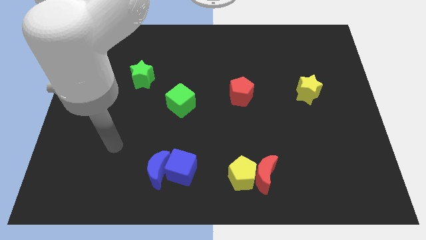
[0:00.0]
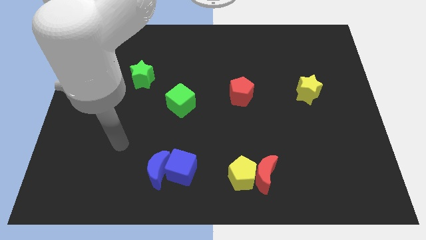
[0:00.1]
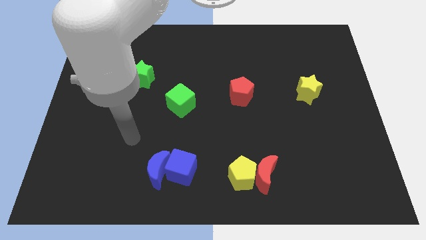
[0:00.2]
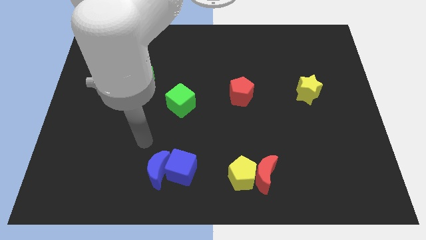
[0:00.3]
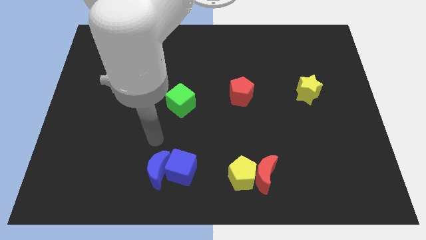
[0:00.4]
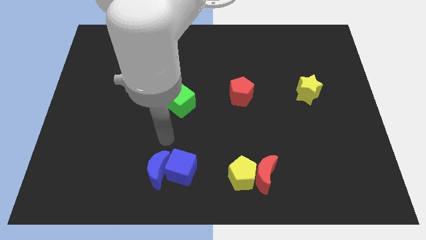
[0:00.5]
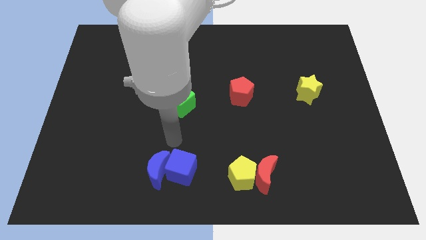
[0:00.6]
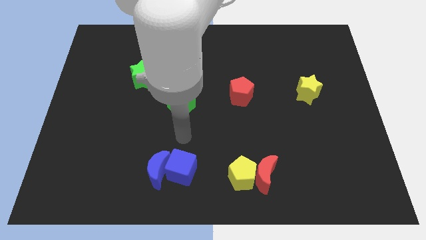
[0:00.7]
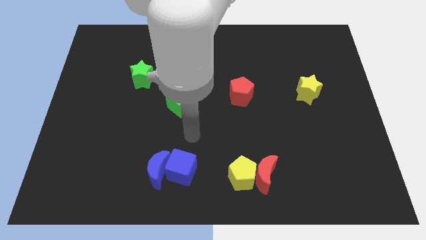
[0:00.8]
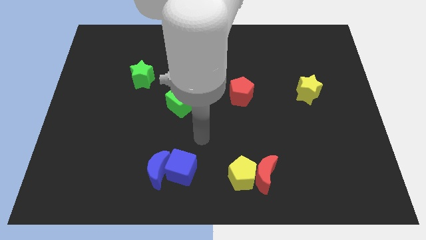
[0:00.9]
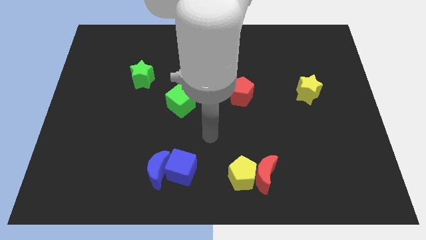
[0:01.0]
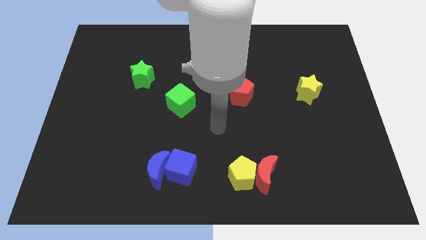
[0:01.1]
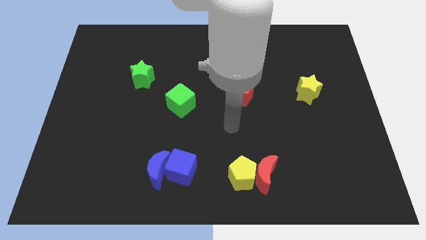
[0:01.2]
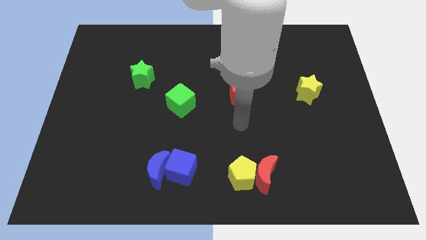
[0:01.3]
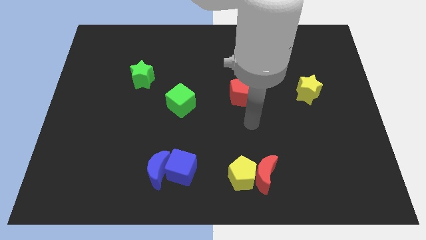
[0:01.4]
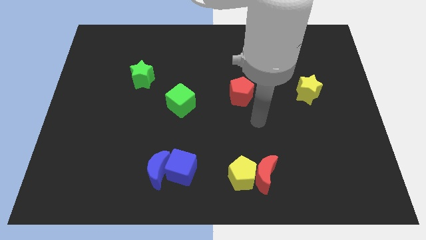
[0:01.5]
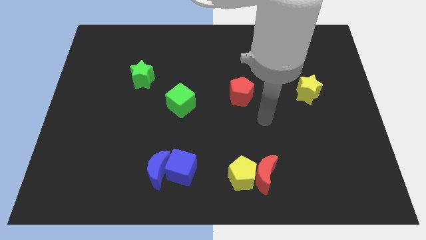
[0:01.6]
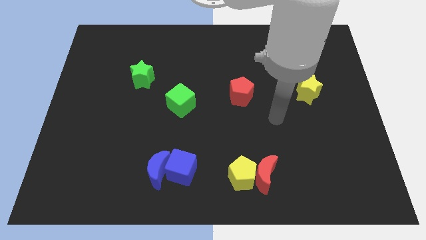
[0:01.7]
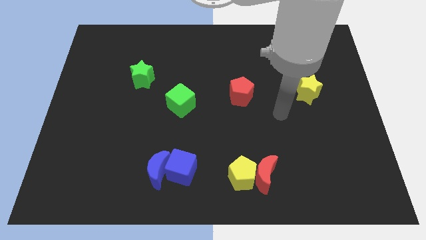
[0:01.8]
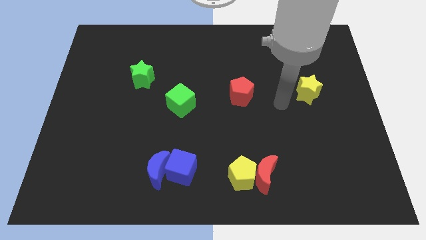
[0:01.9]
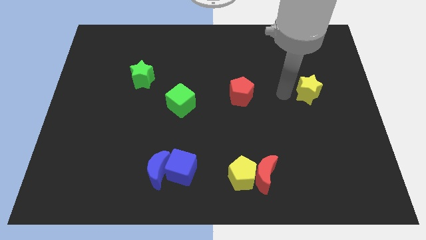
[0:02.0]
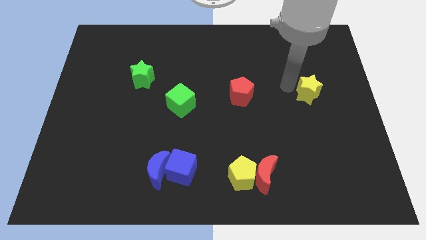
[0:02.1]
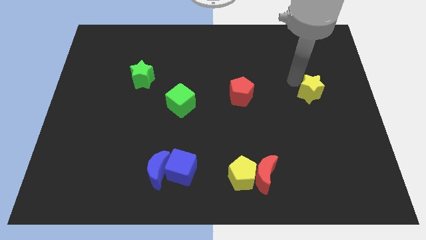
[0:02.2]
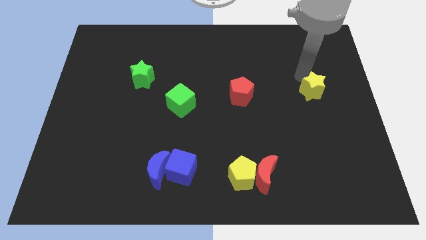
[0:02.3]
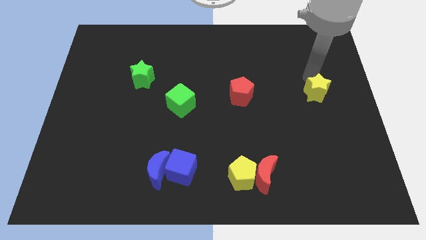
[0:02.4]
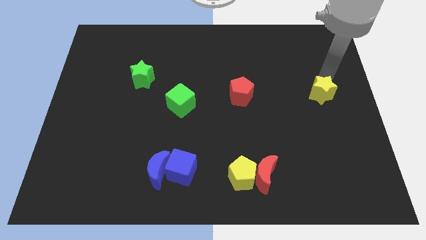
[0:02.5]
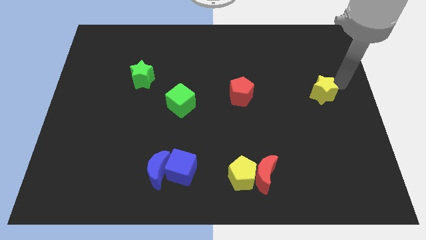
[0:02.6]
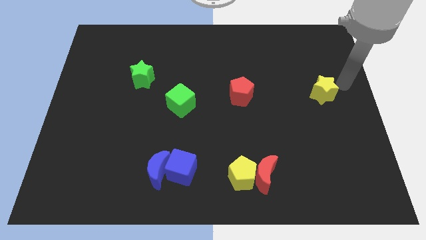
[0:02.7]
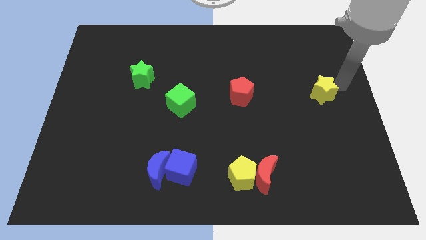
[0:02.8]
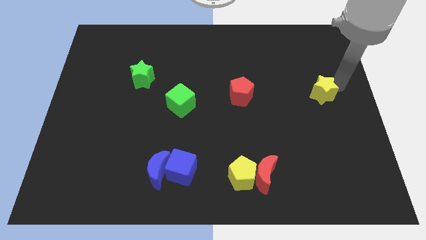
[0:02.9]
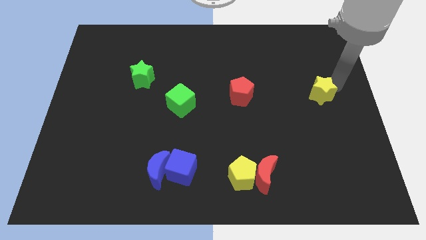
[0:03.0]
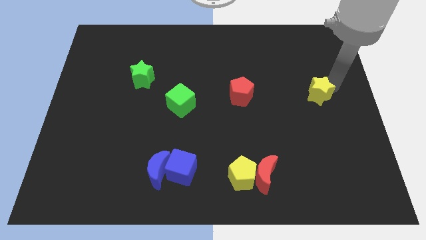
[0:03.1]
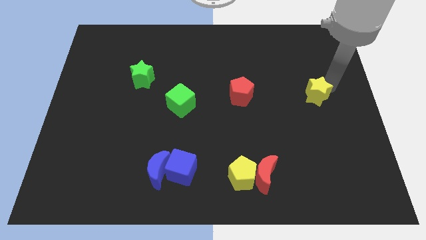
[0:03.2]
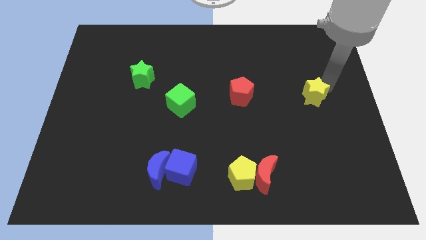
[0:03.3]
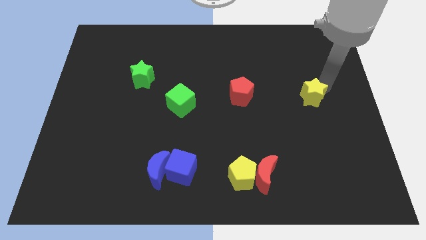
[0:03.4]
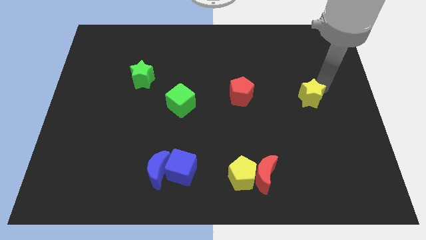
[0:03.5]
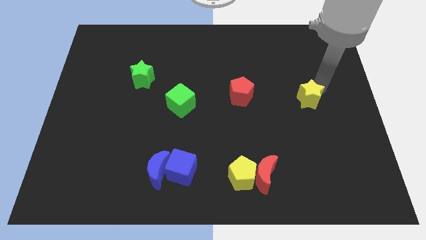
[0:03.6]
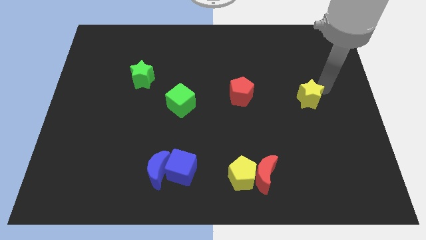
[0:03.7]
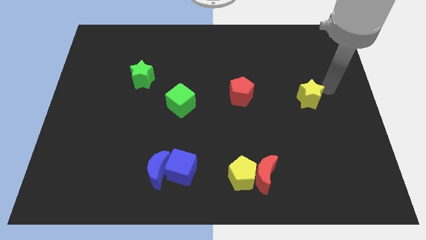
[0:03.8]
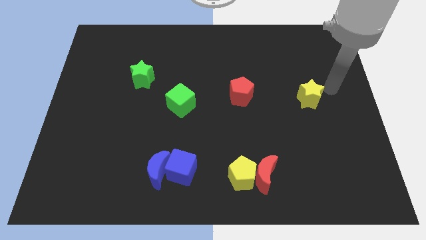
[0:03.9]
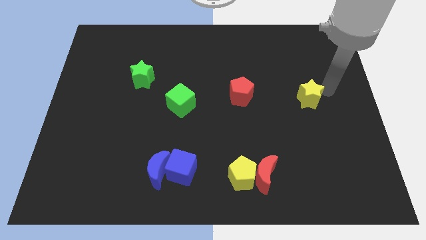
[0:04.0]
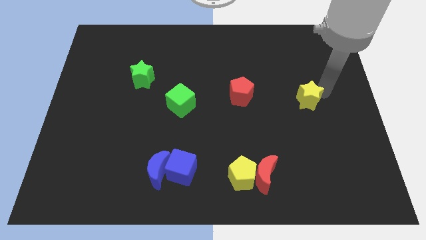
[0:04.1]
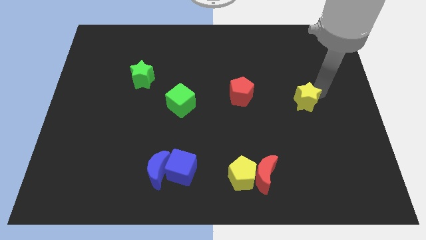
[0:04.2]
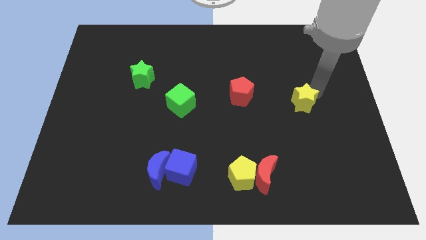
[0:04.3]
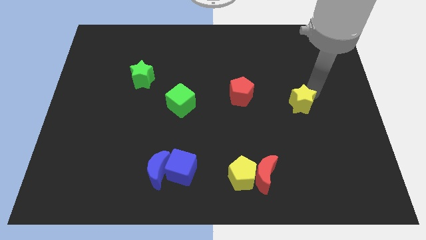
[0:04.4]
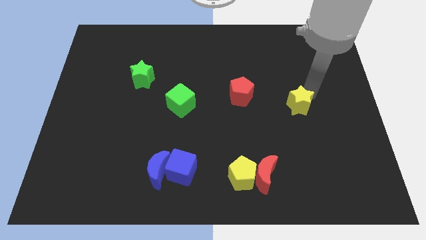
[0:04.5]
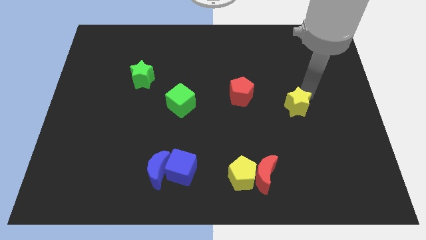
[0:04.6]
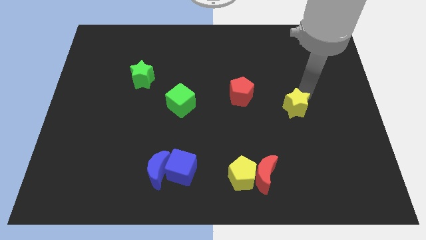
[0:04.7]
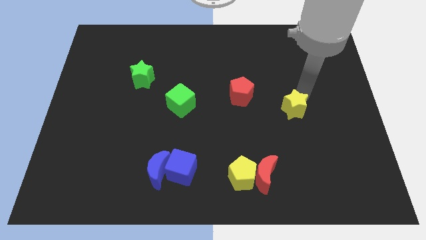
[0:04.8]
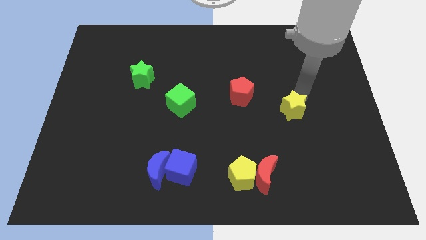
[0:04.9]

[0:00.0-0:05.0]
slide the yellow star a little bit down and then left

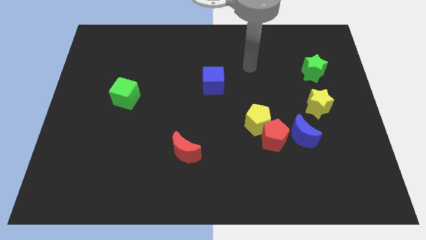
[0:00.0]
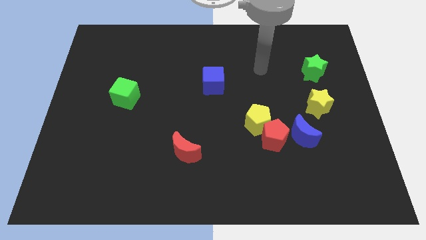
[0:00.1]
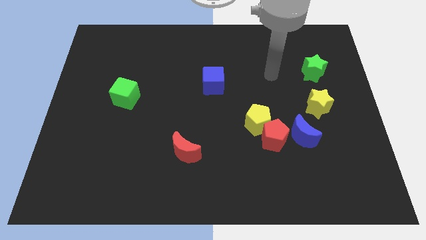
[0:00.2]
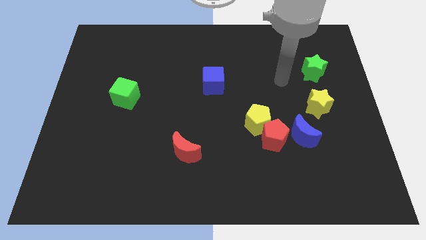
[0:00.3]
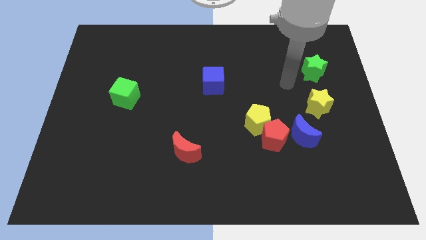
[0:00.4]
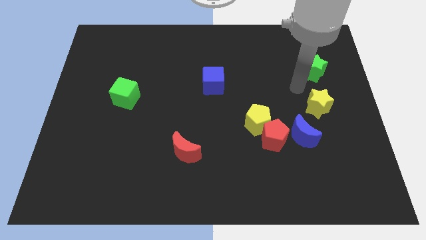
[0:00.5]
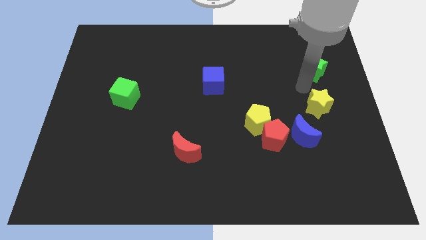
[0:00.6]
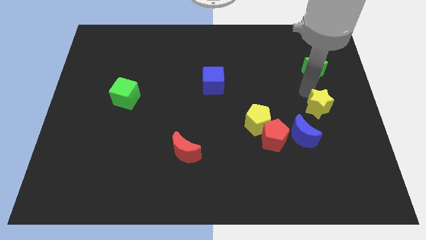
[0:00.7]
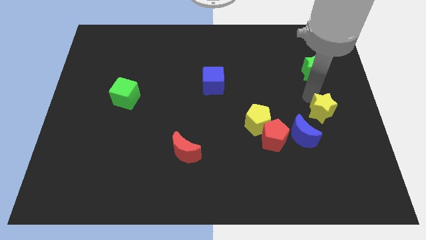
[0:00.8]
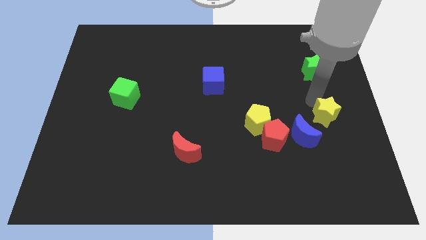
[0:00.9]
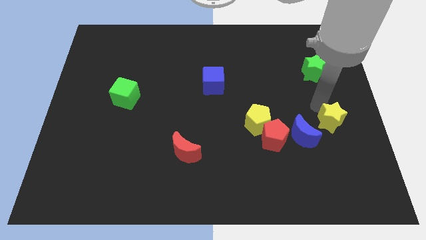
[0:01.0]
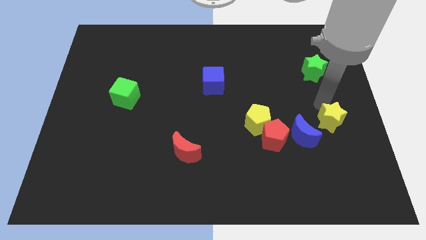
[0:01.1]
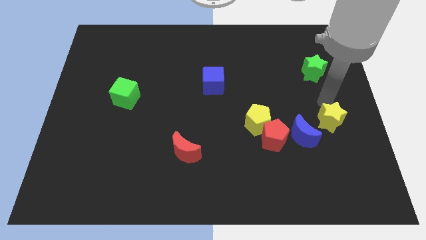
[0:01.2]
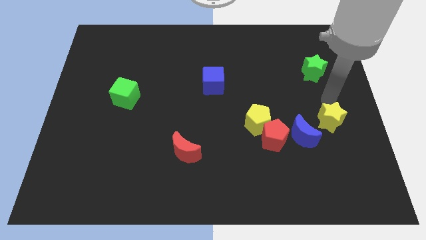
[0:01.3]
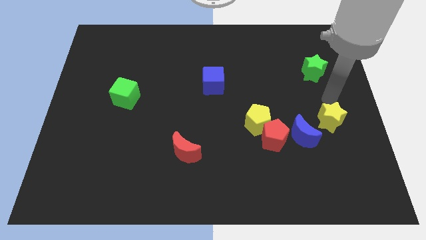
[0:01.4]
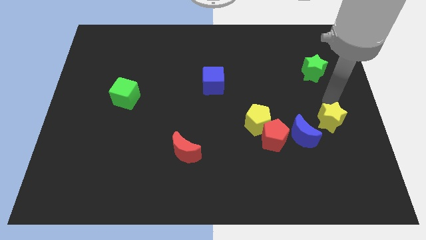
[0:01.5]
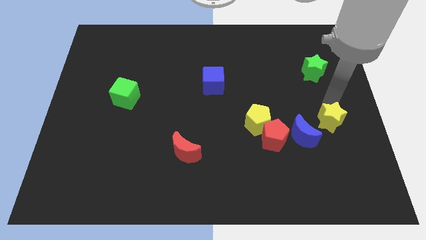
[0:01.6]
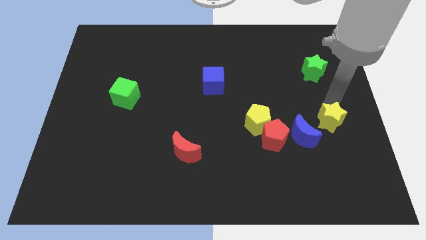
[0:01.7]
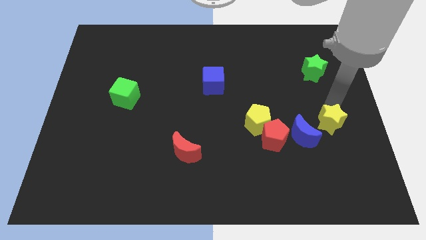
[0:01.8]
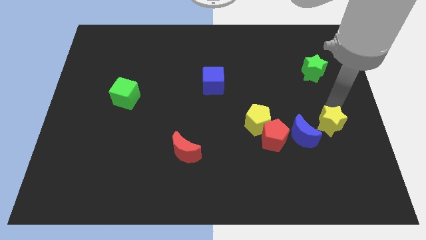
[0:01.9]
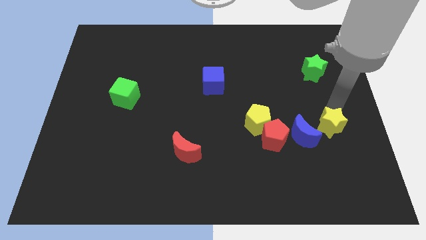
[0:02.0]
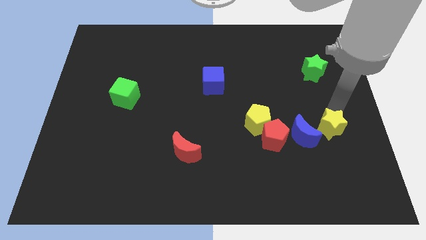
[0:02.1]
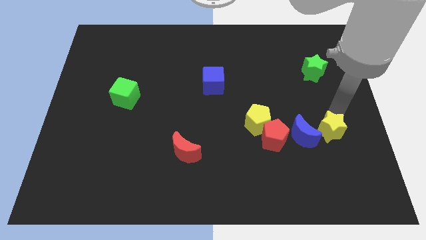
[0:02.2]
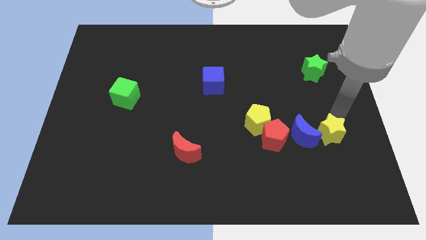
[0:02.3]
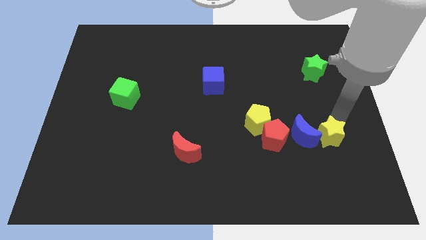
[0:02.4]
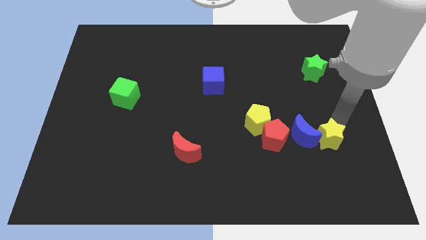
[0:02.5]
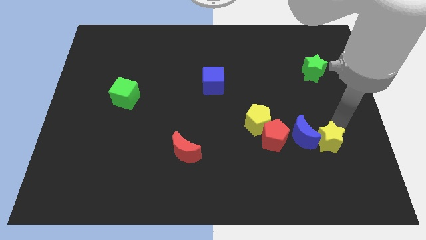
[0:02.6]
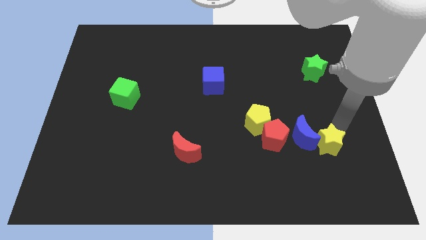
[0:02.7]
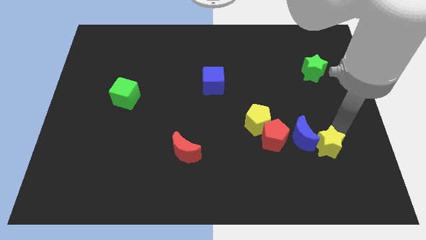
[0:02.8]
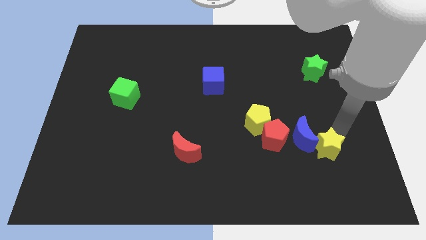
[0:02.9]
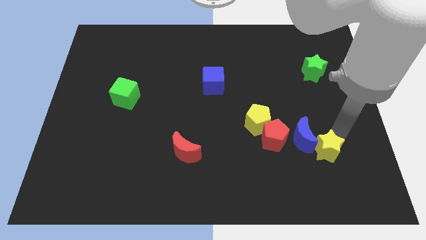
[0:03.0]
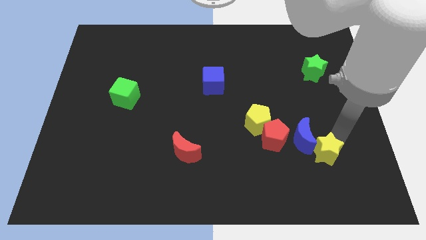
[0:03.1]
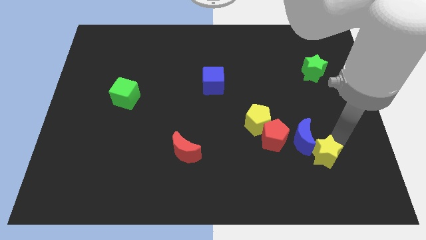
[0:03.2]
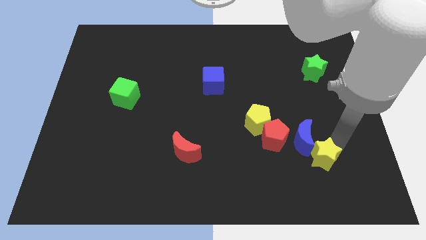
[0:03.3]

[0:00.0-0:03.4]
slide the yellow star somewhat downwards and left
